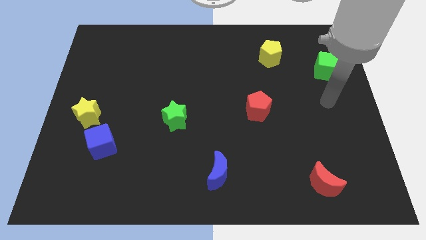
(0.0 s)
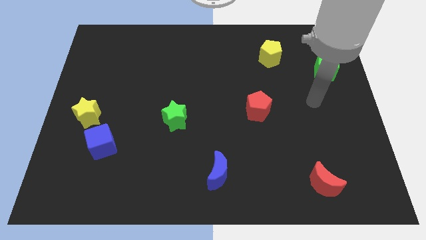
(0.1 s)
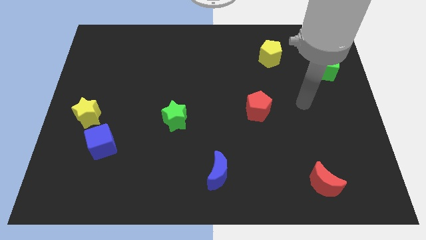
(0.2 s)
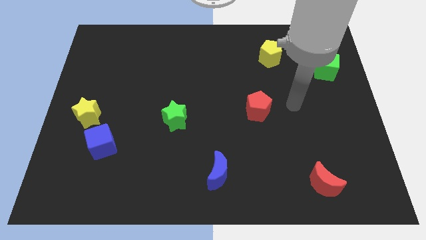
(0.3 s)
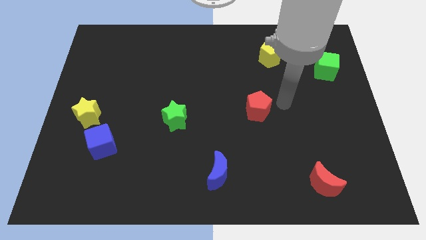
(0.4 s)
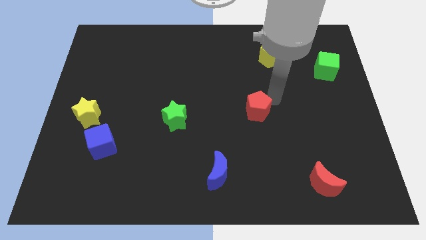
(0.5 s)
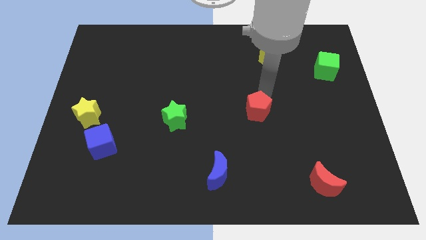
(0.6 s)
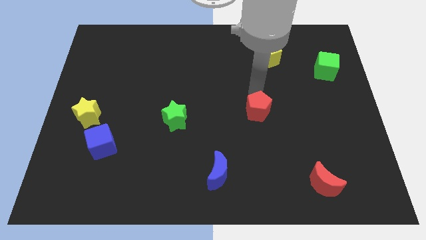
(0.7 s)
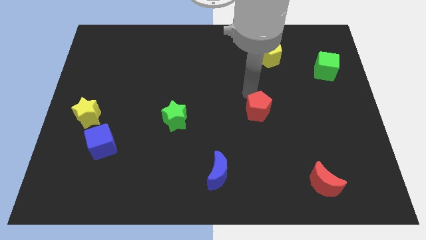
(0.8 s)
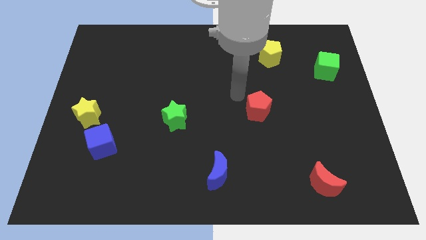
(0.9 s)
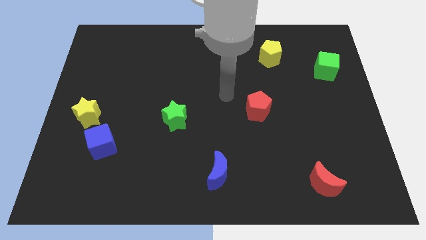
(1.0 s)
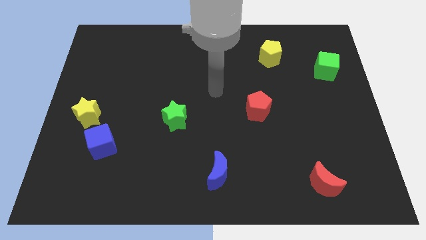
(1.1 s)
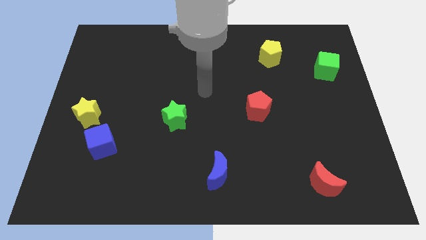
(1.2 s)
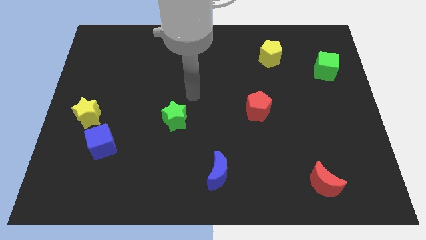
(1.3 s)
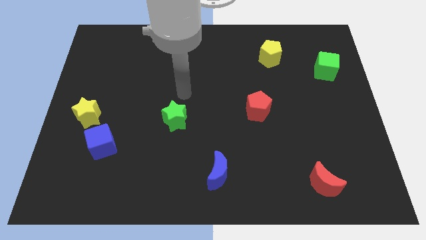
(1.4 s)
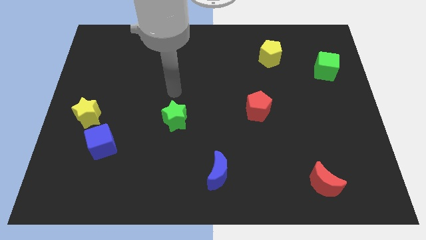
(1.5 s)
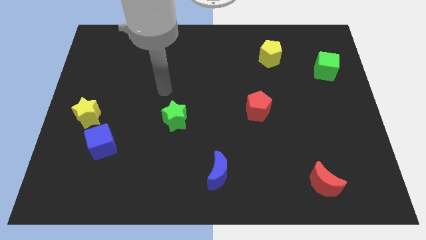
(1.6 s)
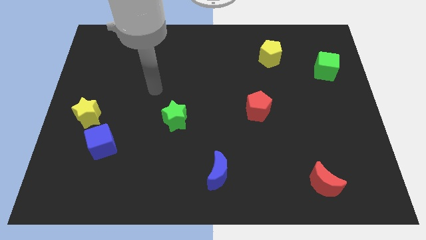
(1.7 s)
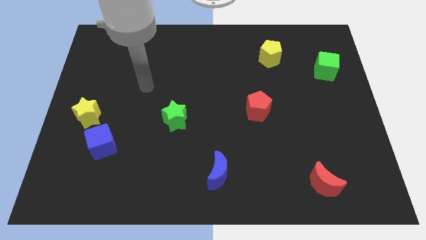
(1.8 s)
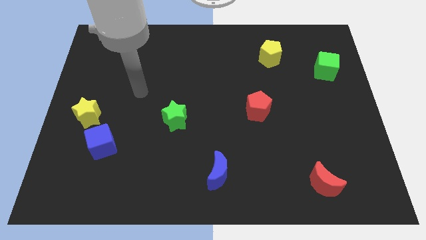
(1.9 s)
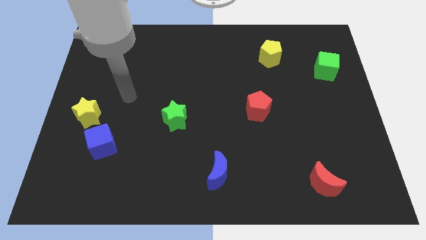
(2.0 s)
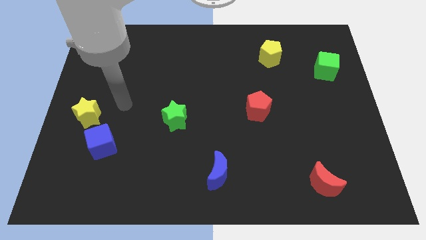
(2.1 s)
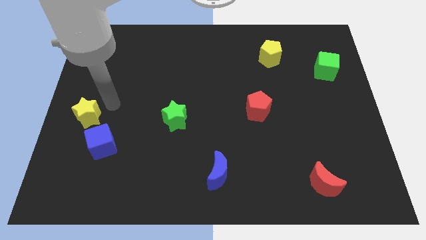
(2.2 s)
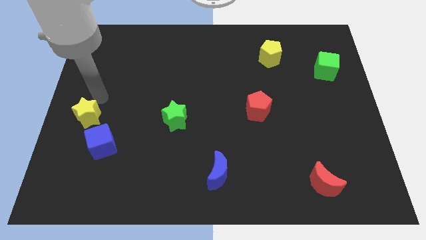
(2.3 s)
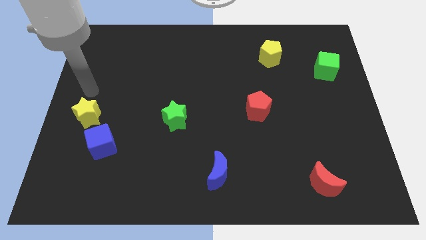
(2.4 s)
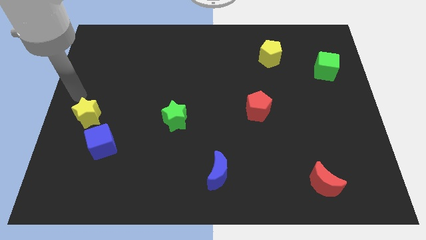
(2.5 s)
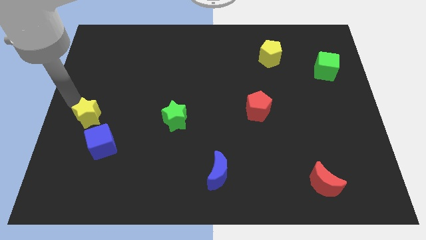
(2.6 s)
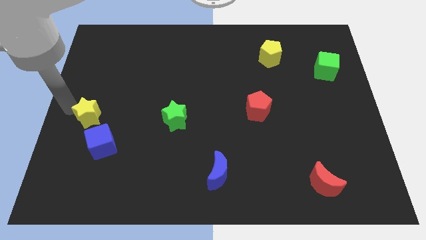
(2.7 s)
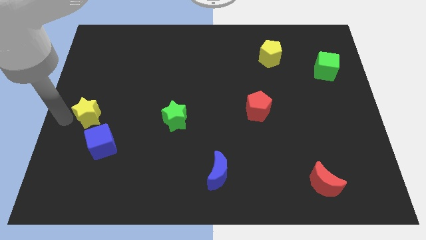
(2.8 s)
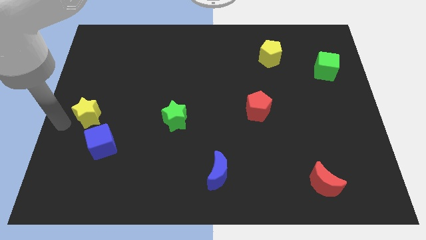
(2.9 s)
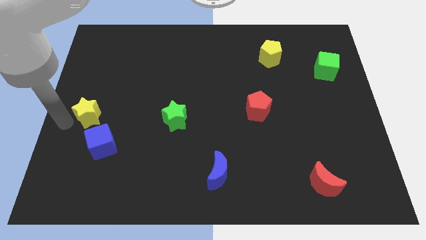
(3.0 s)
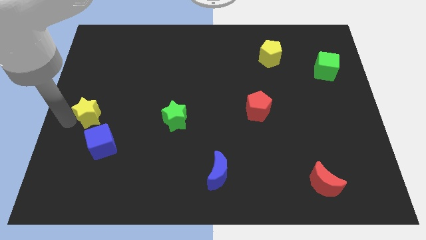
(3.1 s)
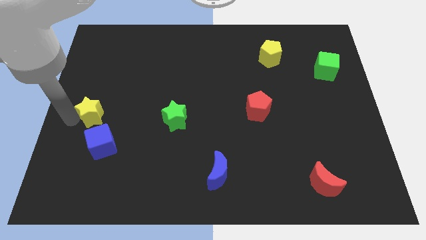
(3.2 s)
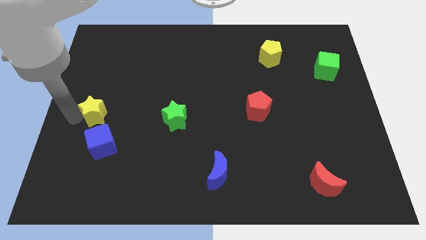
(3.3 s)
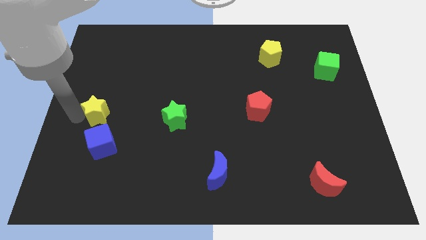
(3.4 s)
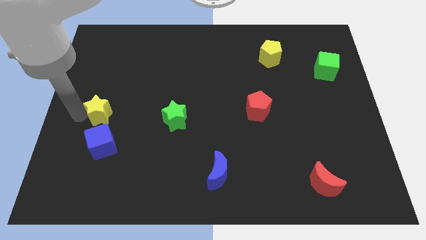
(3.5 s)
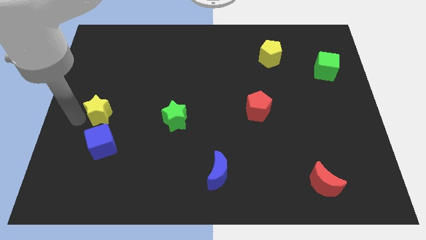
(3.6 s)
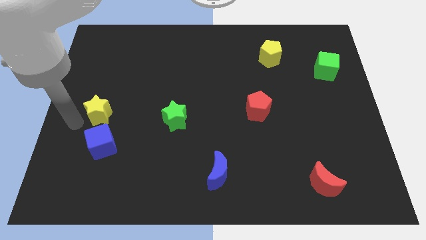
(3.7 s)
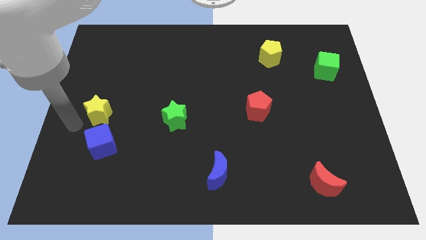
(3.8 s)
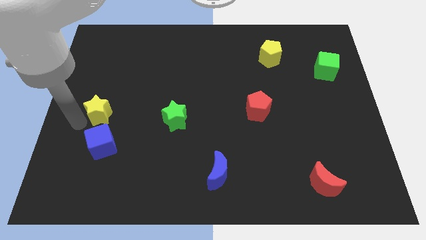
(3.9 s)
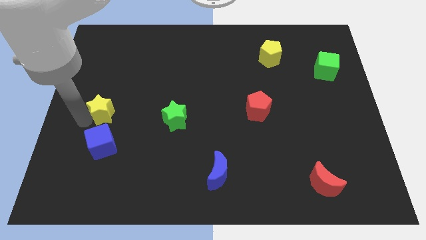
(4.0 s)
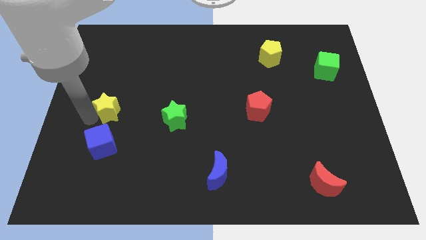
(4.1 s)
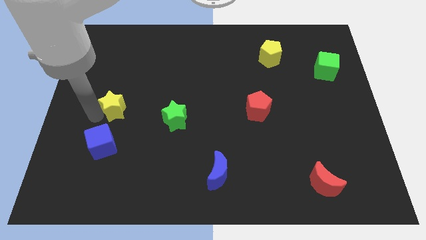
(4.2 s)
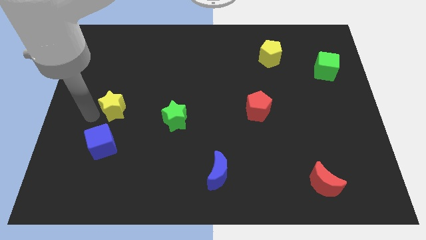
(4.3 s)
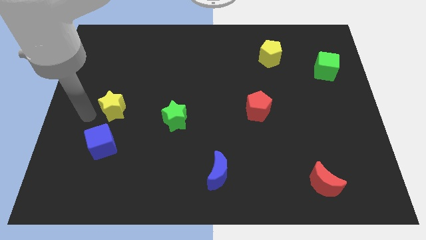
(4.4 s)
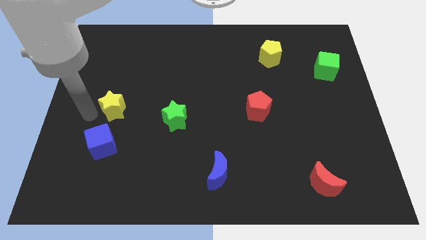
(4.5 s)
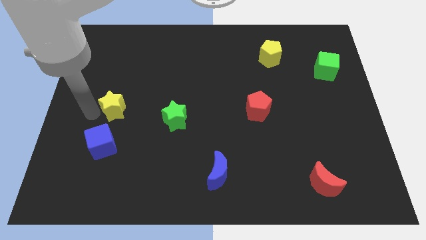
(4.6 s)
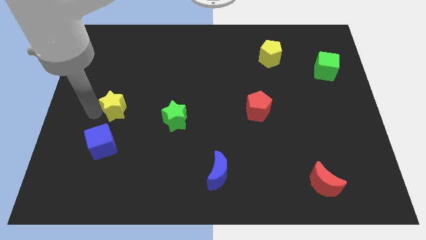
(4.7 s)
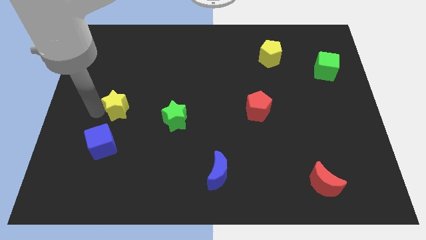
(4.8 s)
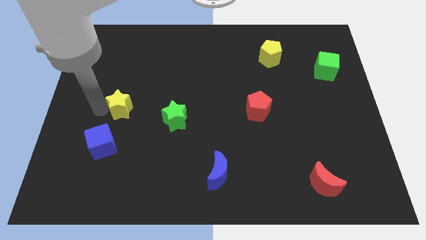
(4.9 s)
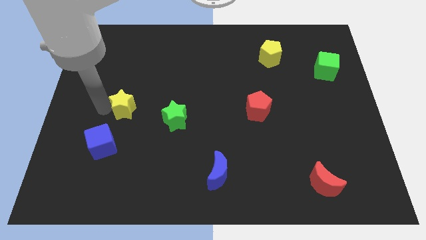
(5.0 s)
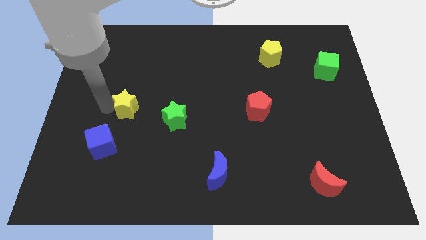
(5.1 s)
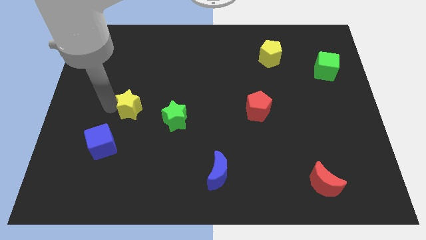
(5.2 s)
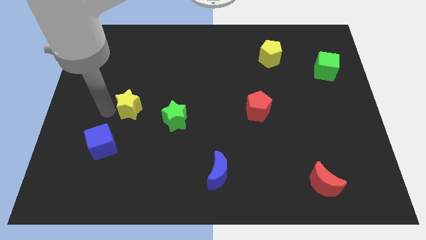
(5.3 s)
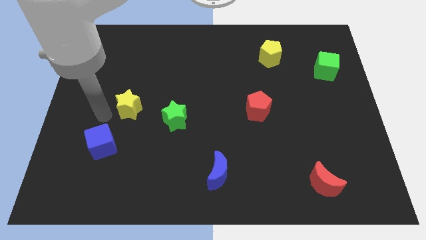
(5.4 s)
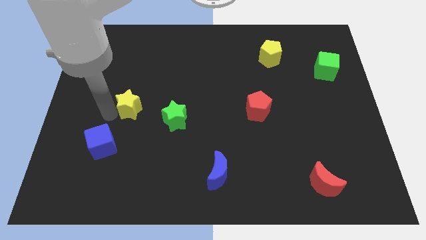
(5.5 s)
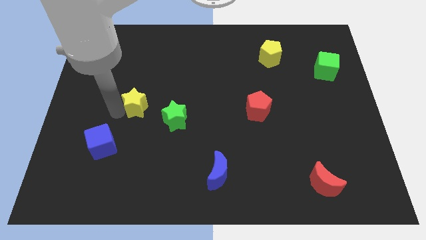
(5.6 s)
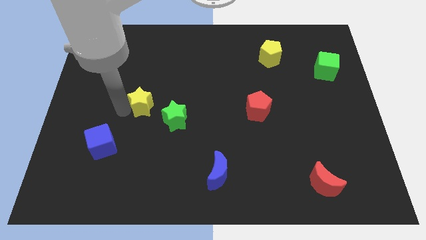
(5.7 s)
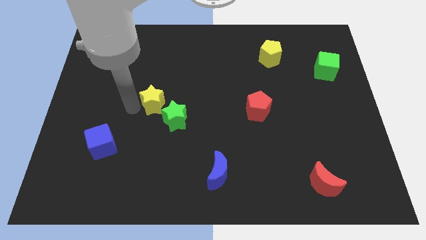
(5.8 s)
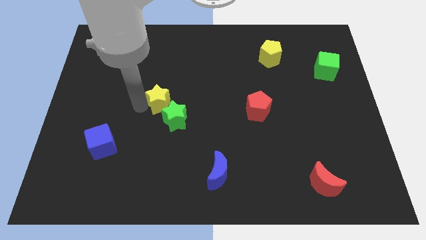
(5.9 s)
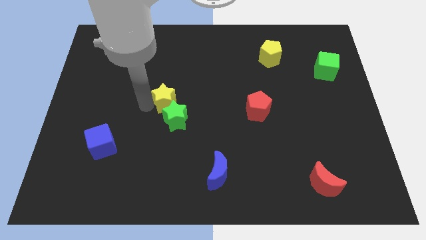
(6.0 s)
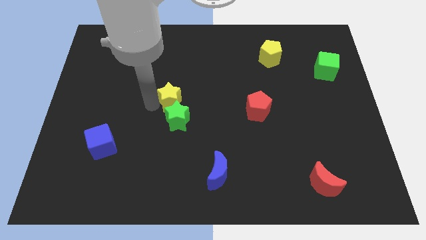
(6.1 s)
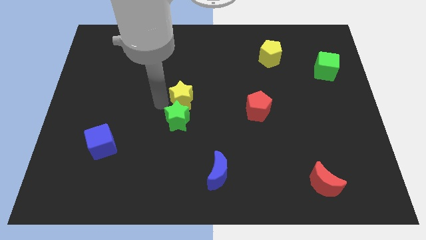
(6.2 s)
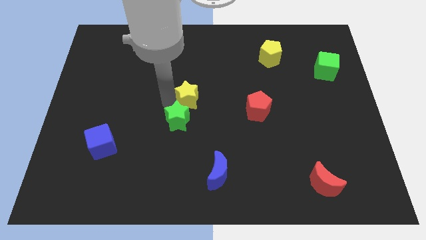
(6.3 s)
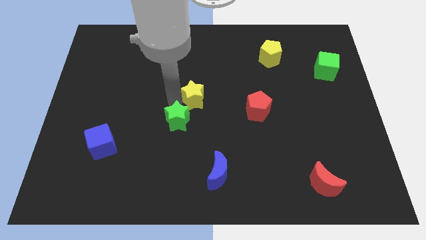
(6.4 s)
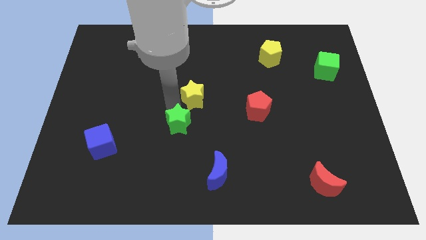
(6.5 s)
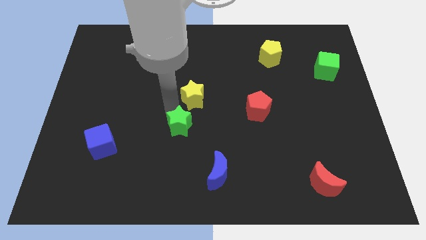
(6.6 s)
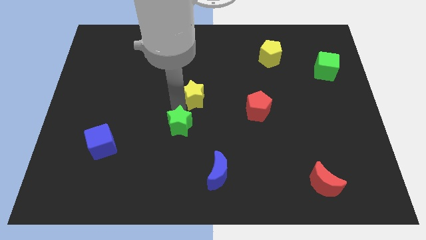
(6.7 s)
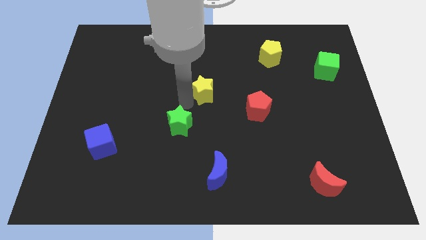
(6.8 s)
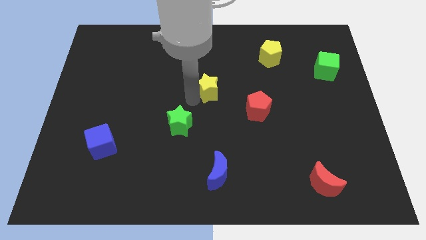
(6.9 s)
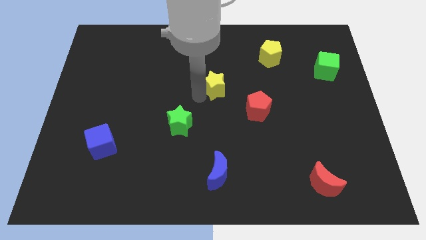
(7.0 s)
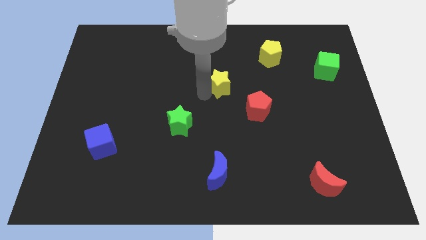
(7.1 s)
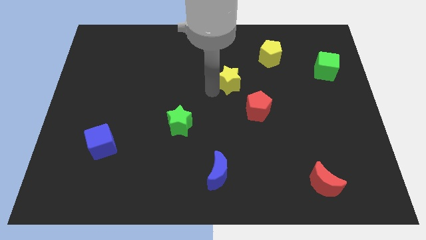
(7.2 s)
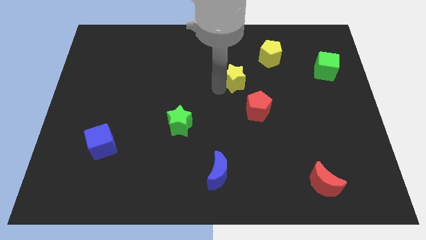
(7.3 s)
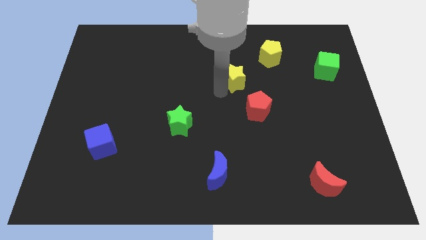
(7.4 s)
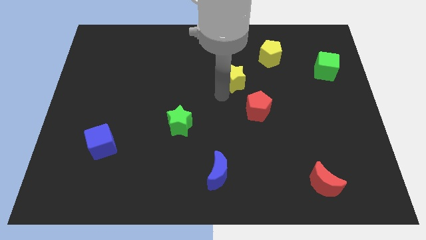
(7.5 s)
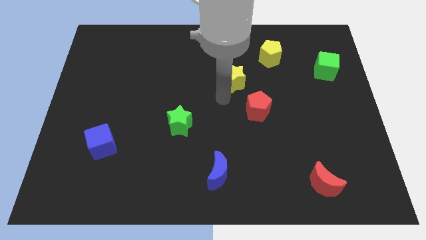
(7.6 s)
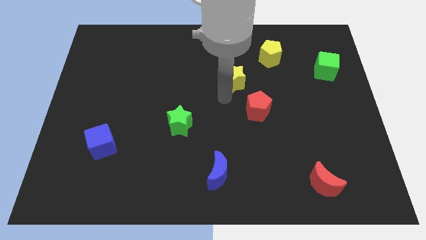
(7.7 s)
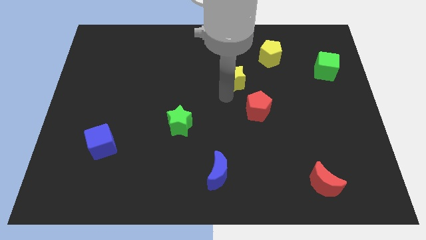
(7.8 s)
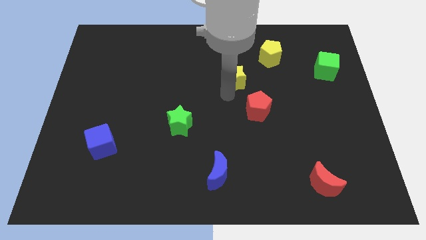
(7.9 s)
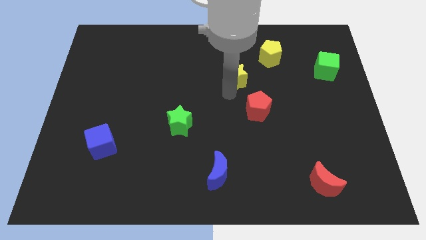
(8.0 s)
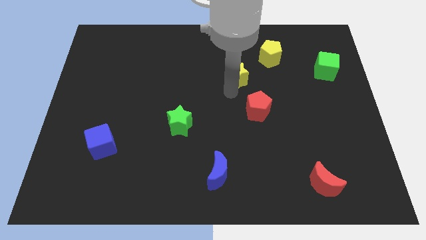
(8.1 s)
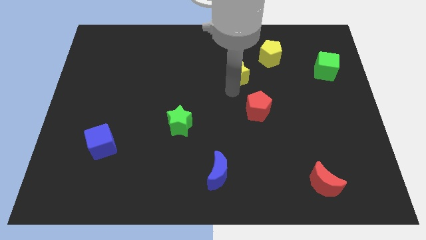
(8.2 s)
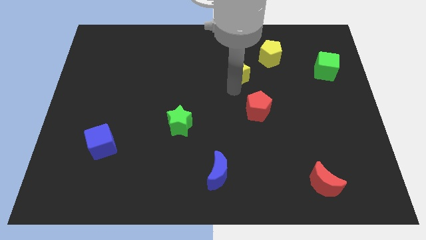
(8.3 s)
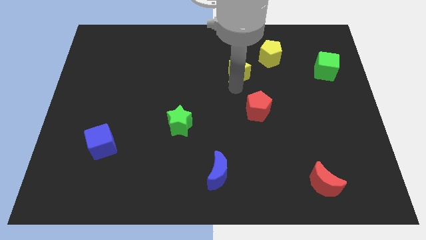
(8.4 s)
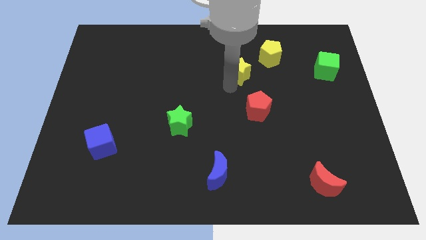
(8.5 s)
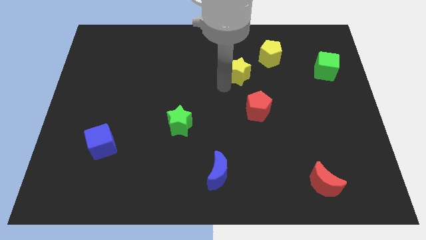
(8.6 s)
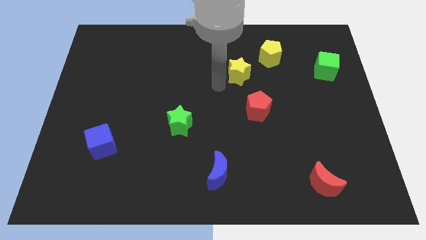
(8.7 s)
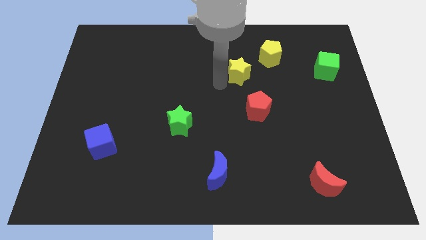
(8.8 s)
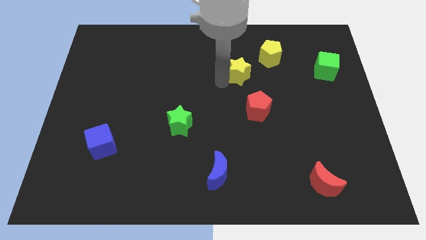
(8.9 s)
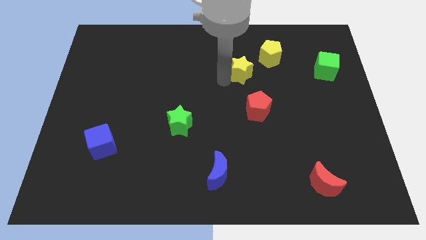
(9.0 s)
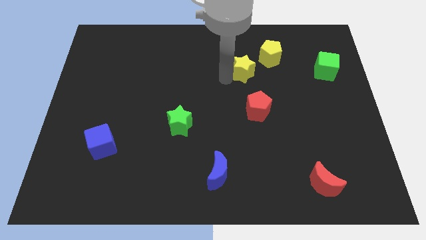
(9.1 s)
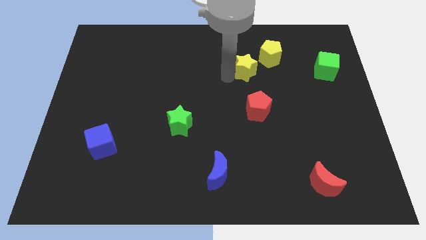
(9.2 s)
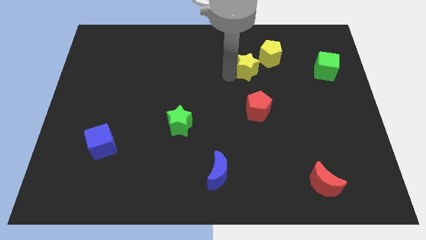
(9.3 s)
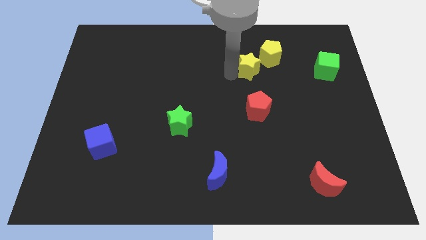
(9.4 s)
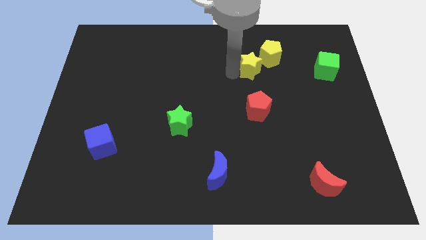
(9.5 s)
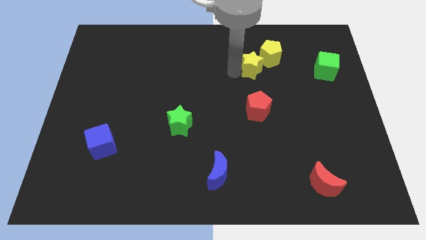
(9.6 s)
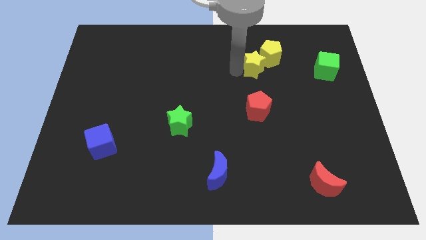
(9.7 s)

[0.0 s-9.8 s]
slide the yellow star to the yellow pentagon
